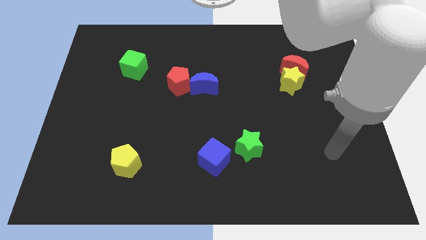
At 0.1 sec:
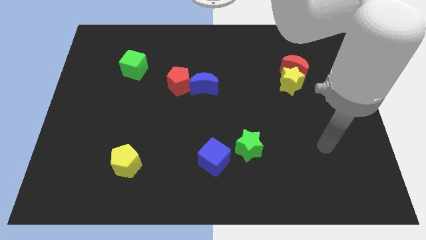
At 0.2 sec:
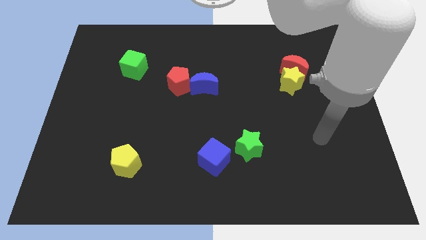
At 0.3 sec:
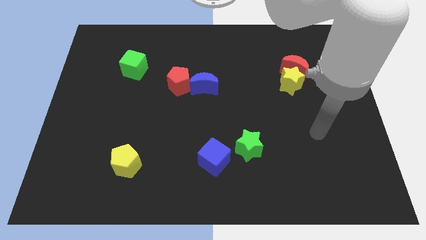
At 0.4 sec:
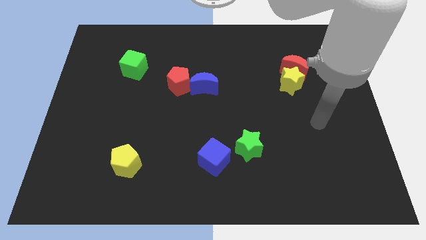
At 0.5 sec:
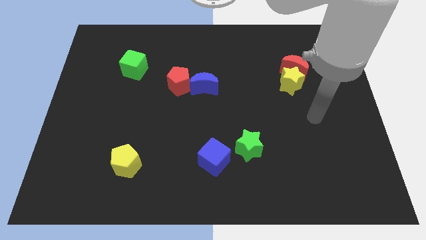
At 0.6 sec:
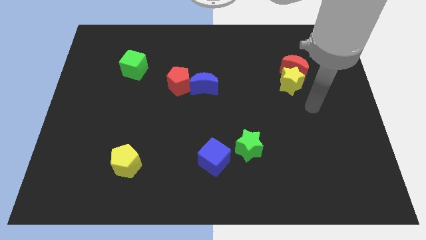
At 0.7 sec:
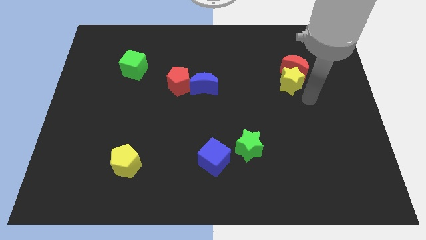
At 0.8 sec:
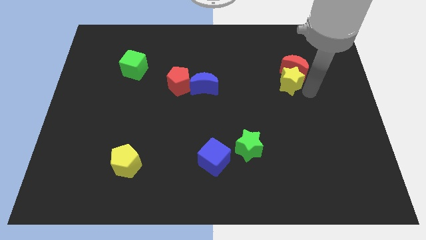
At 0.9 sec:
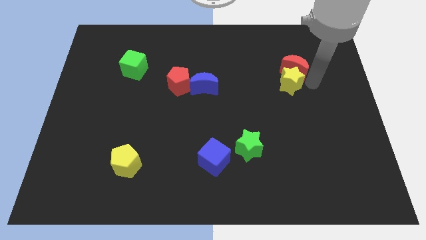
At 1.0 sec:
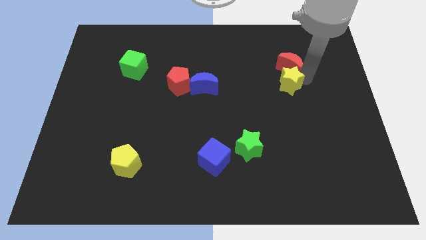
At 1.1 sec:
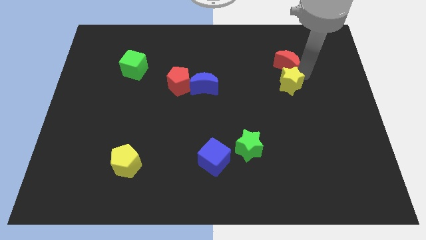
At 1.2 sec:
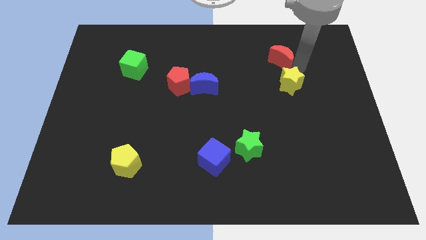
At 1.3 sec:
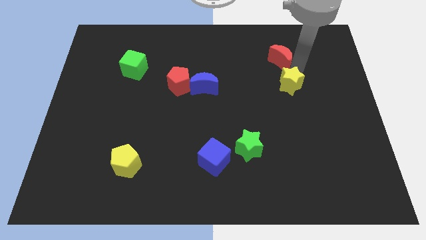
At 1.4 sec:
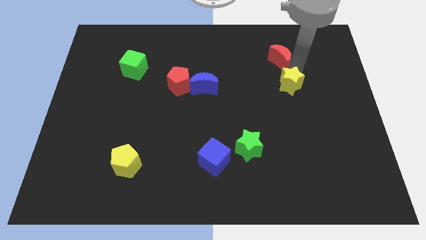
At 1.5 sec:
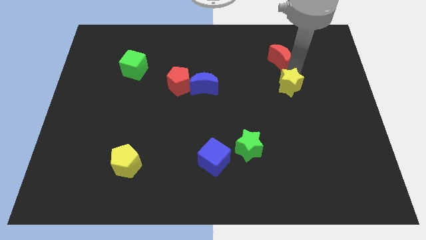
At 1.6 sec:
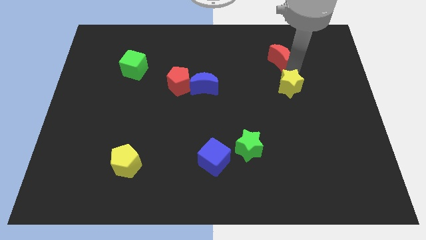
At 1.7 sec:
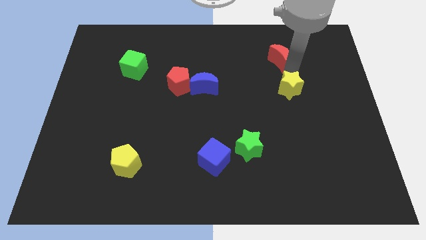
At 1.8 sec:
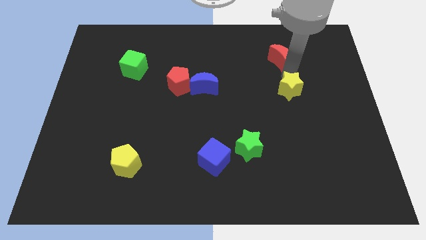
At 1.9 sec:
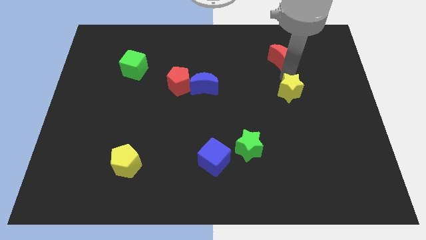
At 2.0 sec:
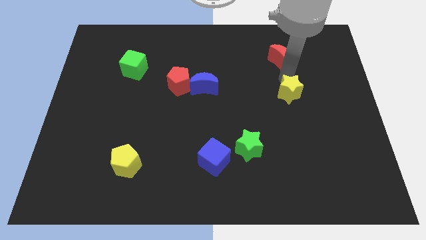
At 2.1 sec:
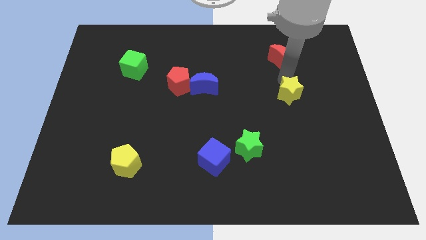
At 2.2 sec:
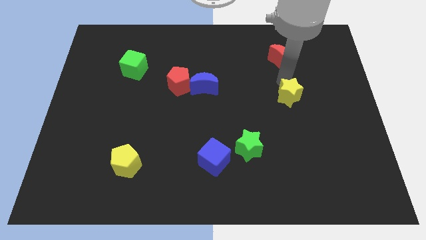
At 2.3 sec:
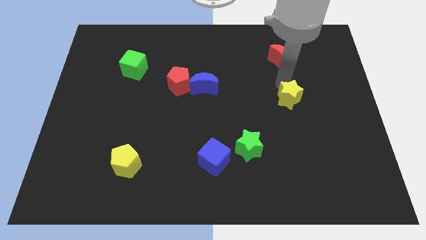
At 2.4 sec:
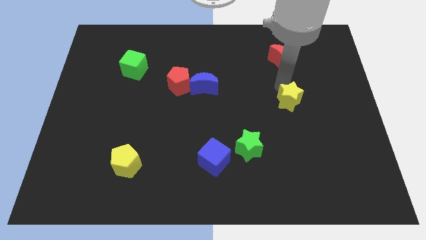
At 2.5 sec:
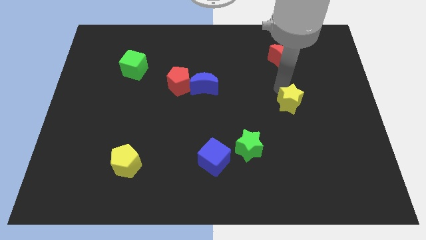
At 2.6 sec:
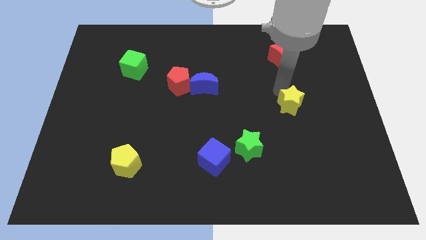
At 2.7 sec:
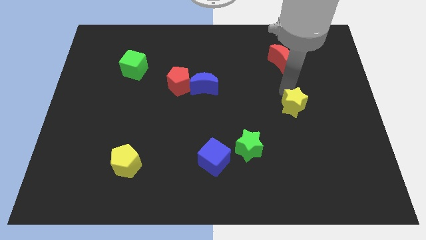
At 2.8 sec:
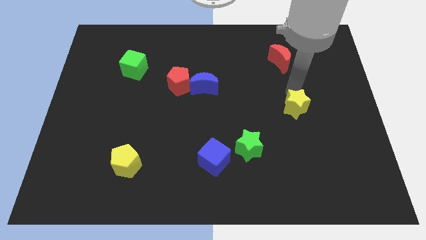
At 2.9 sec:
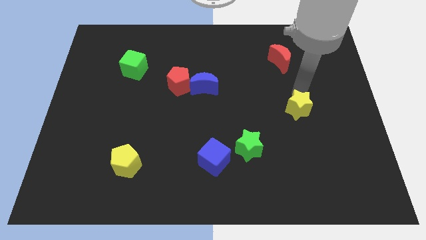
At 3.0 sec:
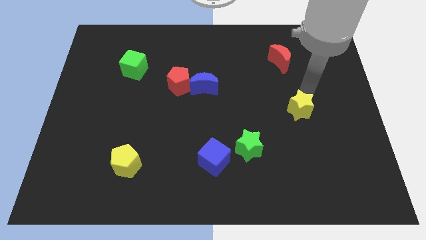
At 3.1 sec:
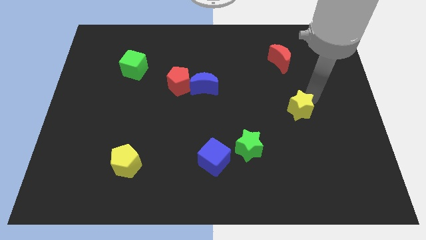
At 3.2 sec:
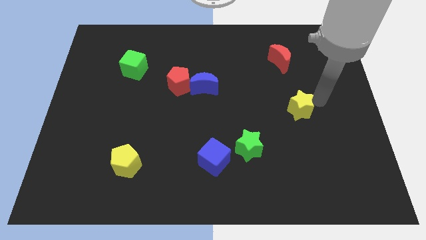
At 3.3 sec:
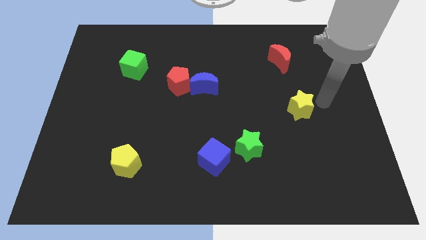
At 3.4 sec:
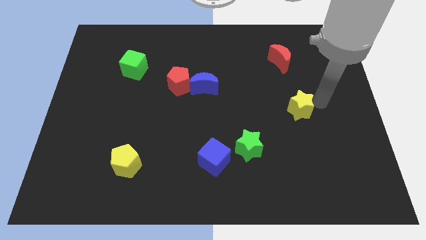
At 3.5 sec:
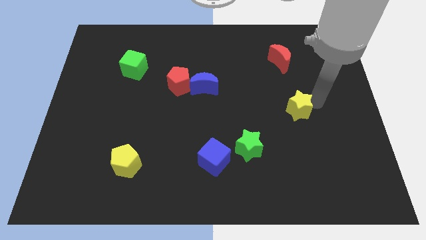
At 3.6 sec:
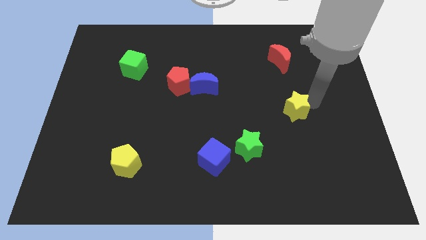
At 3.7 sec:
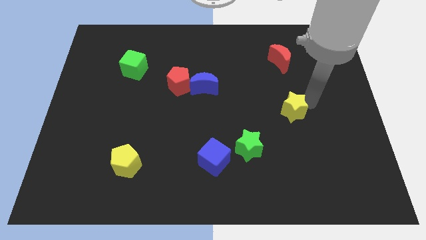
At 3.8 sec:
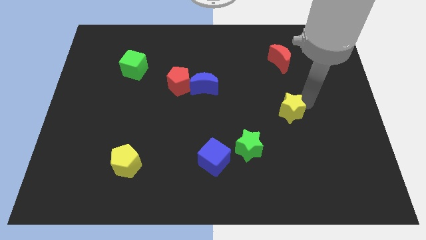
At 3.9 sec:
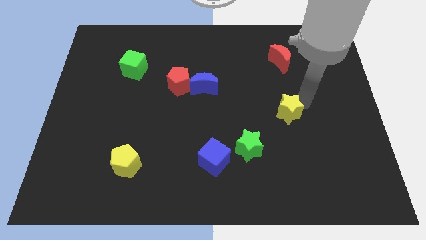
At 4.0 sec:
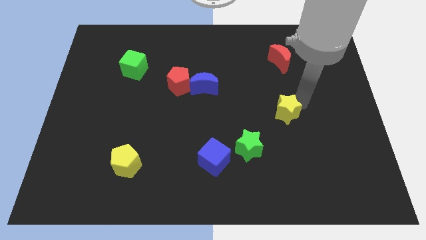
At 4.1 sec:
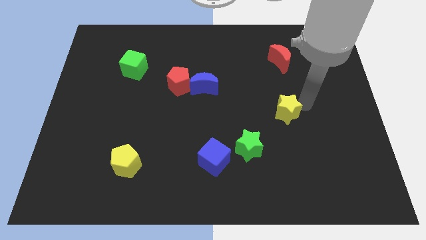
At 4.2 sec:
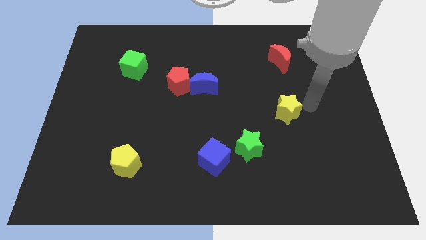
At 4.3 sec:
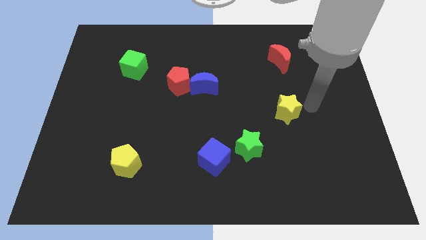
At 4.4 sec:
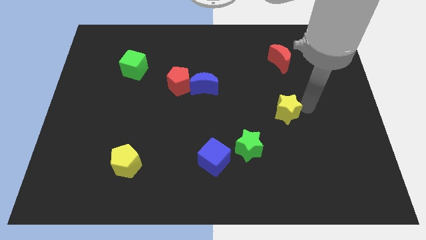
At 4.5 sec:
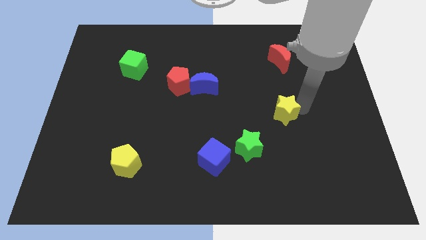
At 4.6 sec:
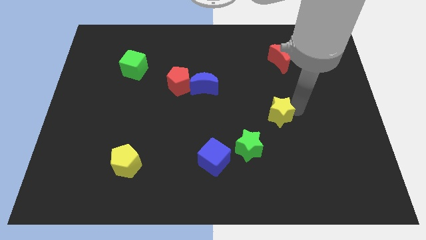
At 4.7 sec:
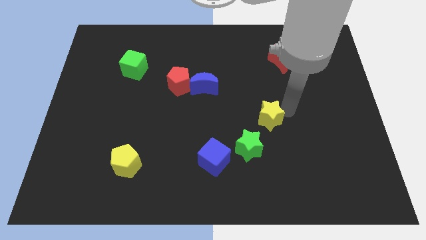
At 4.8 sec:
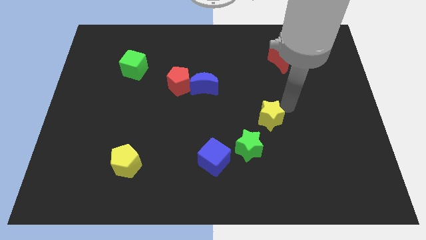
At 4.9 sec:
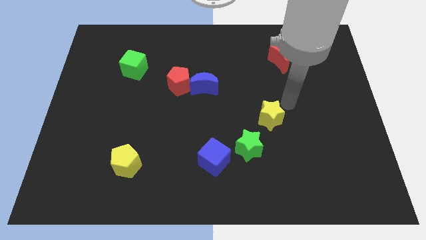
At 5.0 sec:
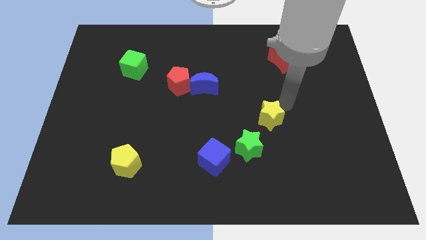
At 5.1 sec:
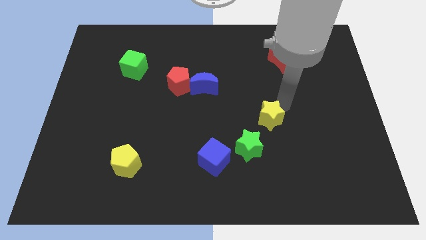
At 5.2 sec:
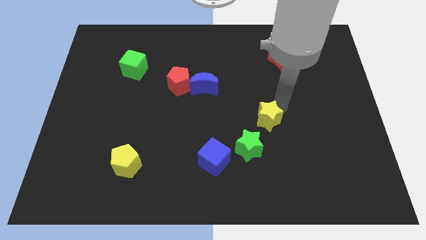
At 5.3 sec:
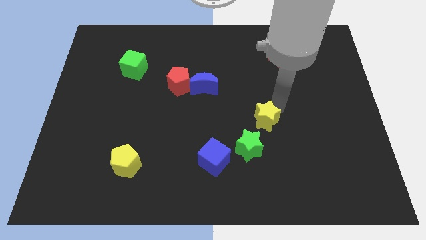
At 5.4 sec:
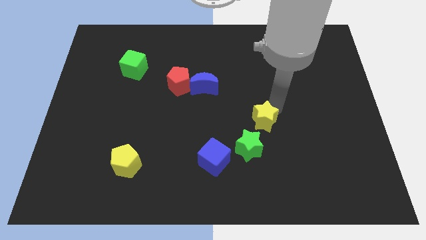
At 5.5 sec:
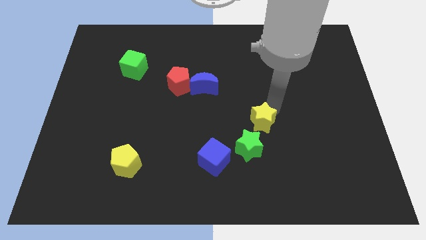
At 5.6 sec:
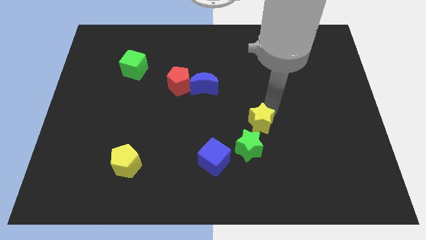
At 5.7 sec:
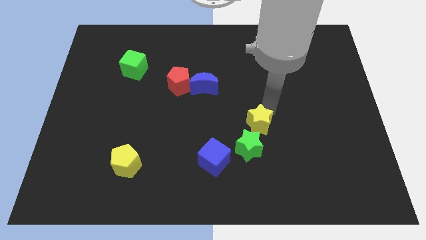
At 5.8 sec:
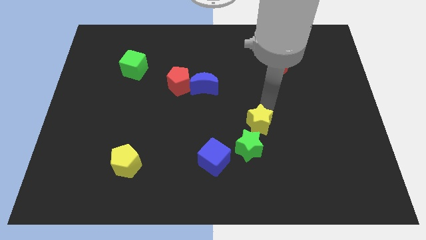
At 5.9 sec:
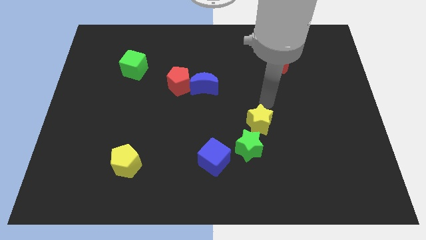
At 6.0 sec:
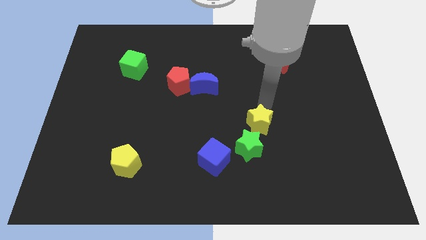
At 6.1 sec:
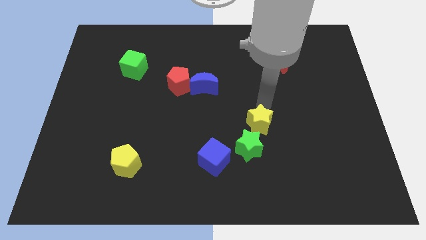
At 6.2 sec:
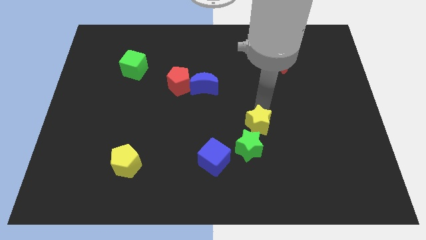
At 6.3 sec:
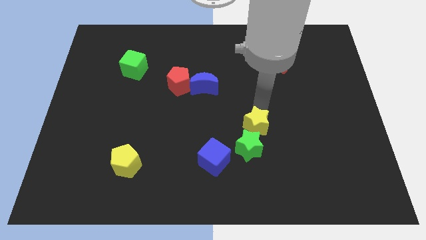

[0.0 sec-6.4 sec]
put the yellow star next to the green star
